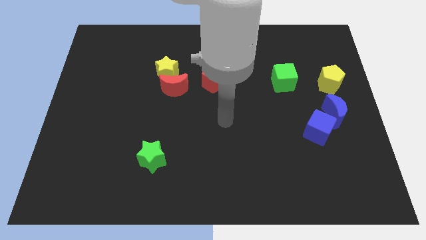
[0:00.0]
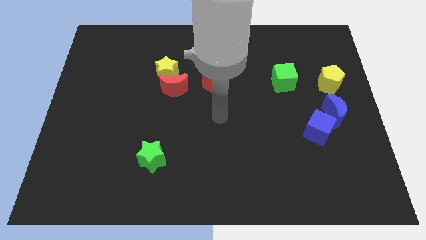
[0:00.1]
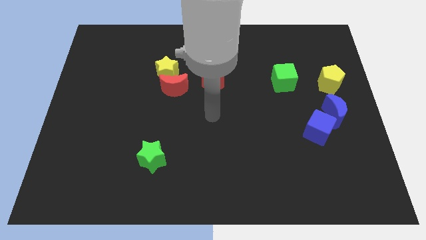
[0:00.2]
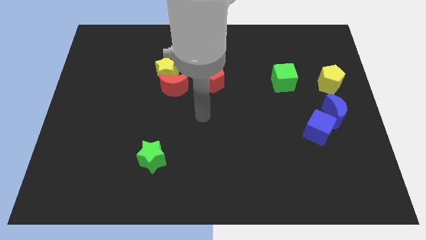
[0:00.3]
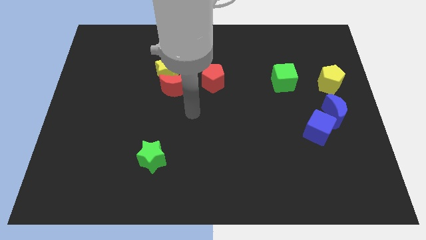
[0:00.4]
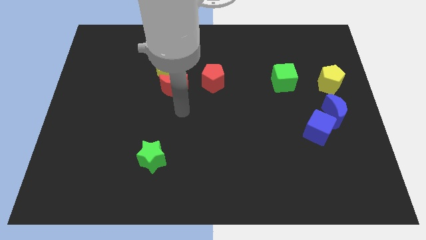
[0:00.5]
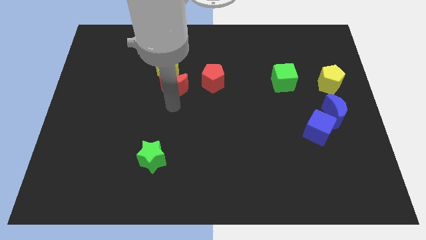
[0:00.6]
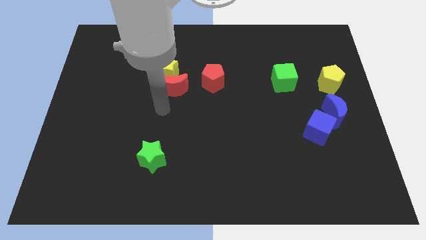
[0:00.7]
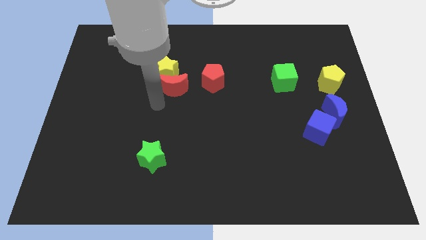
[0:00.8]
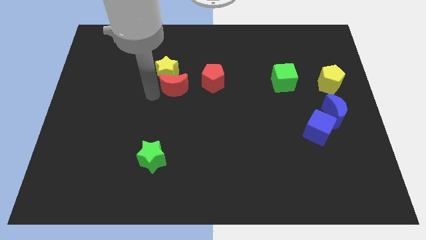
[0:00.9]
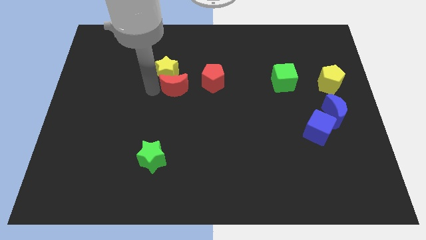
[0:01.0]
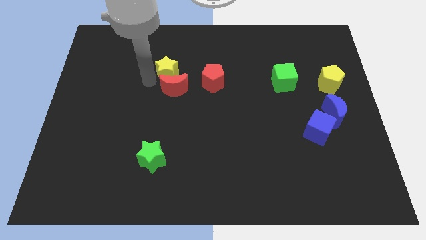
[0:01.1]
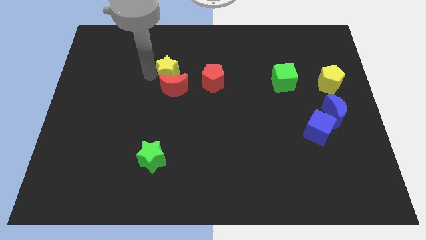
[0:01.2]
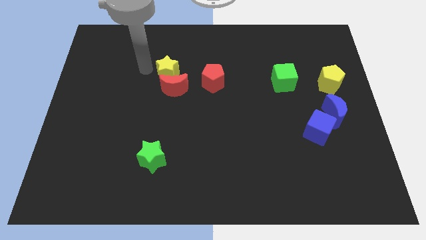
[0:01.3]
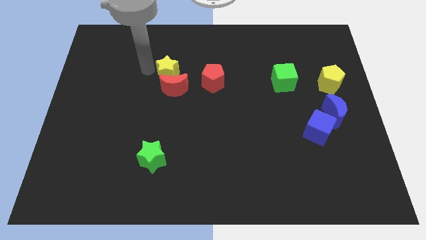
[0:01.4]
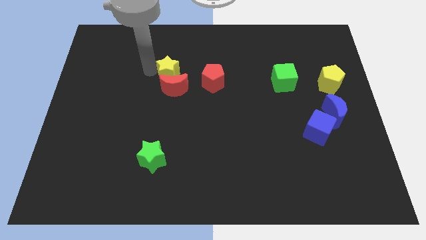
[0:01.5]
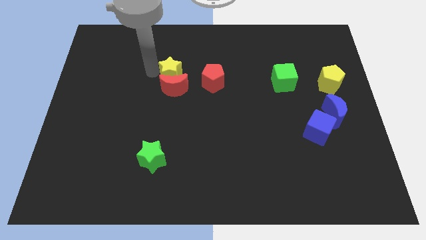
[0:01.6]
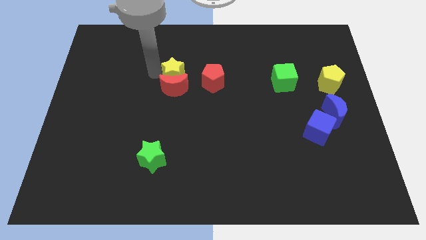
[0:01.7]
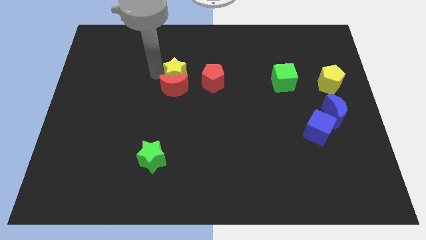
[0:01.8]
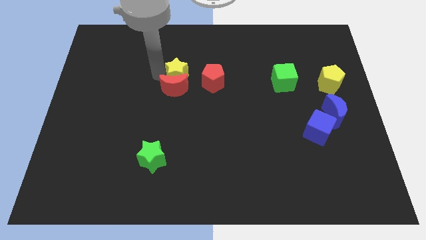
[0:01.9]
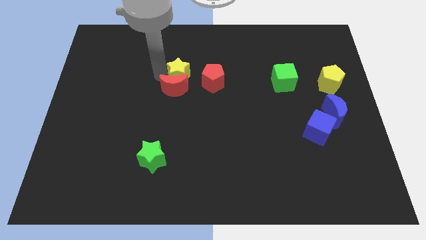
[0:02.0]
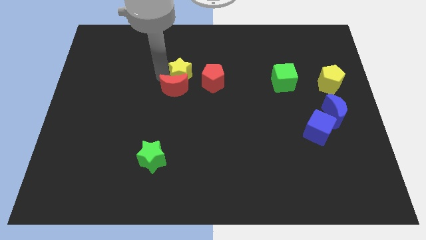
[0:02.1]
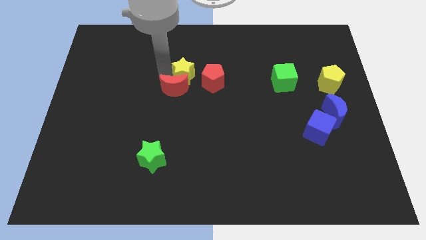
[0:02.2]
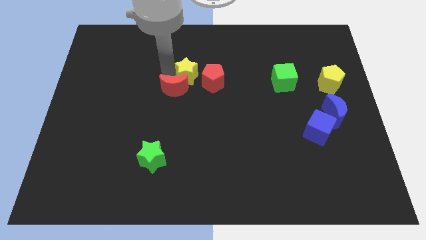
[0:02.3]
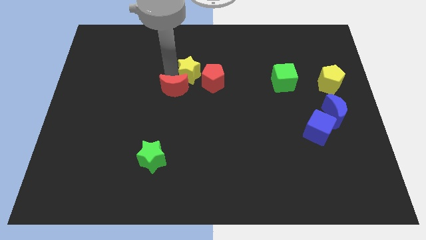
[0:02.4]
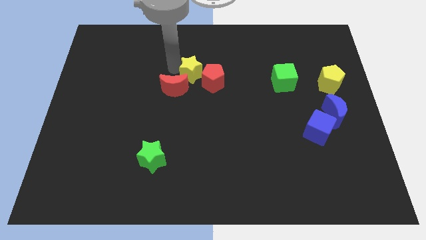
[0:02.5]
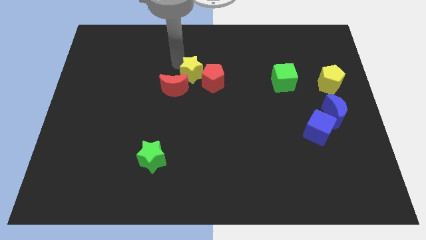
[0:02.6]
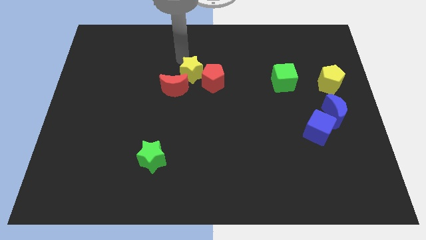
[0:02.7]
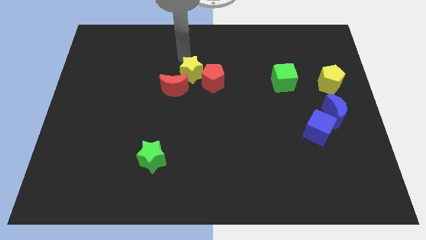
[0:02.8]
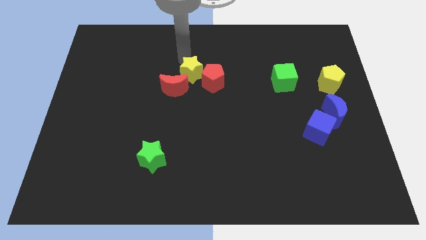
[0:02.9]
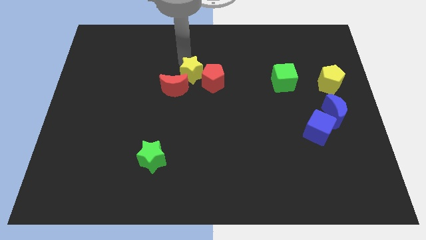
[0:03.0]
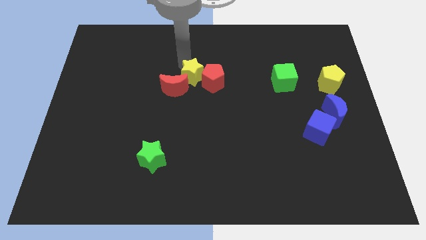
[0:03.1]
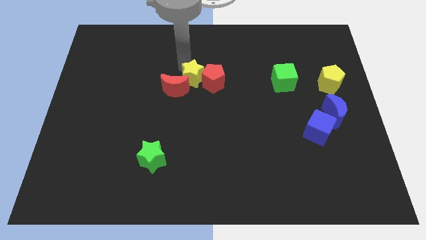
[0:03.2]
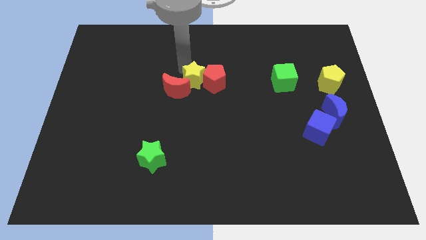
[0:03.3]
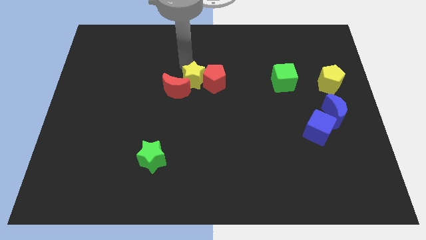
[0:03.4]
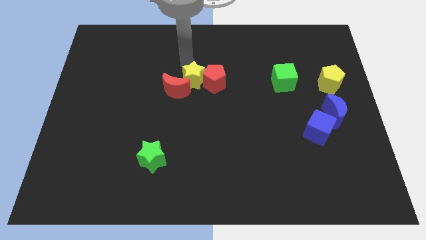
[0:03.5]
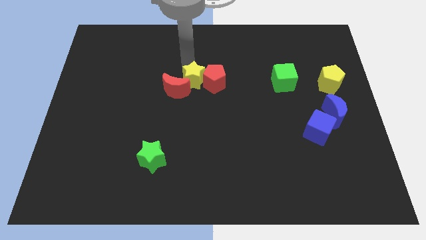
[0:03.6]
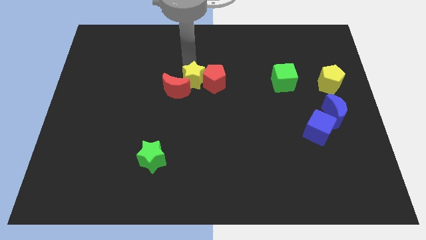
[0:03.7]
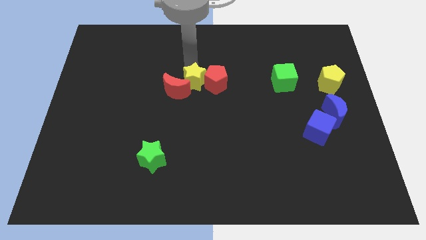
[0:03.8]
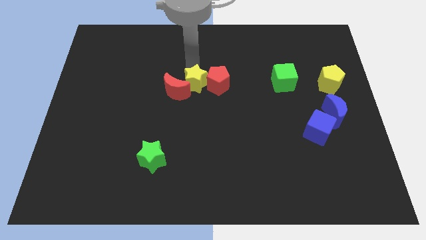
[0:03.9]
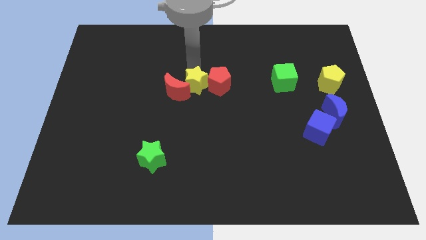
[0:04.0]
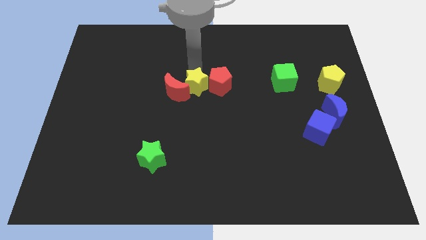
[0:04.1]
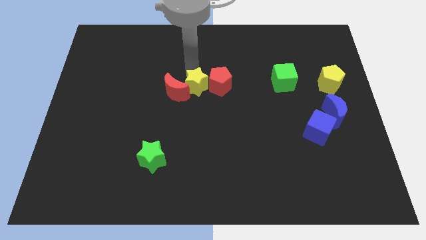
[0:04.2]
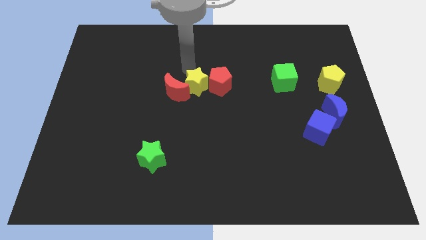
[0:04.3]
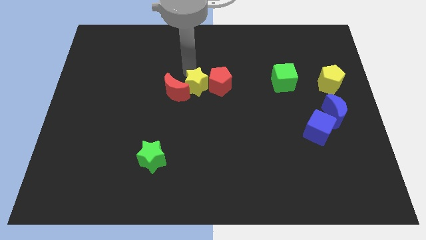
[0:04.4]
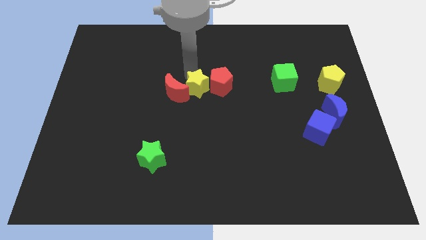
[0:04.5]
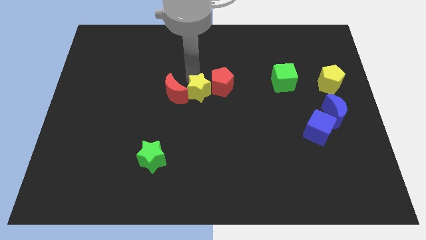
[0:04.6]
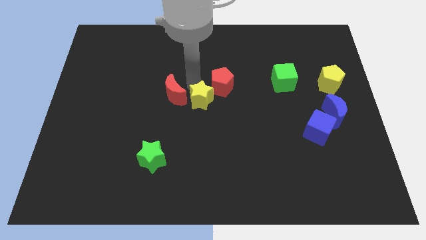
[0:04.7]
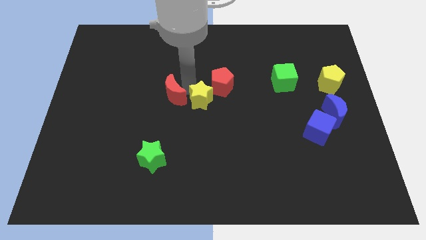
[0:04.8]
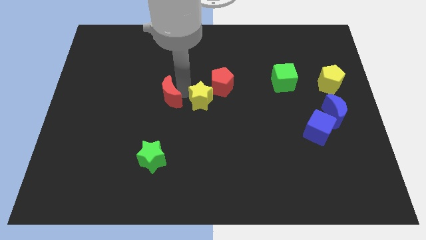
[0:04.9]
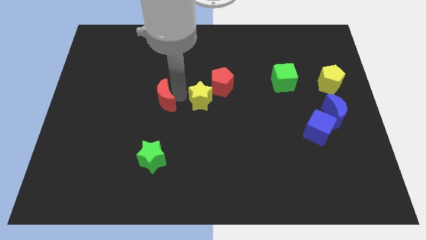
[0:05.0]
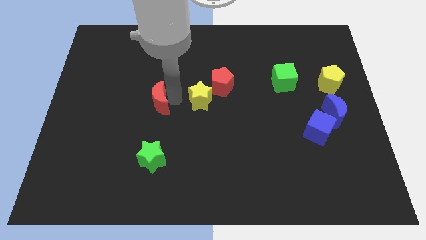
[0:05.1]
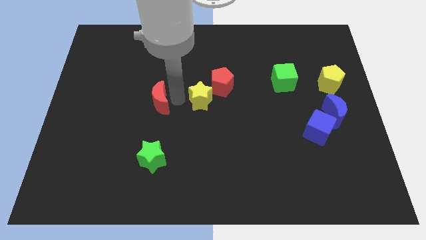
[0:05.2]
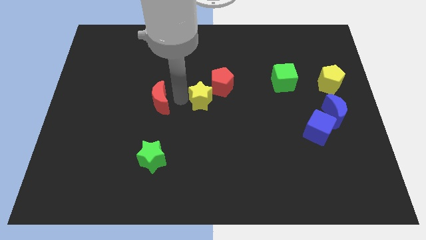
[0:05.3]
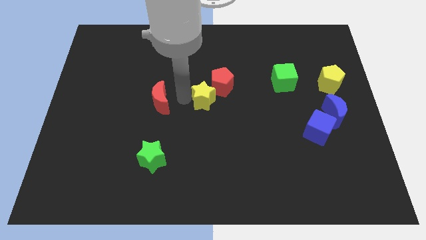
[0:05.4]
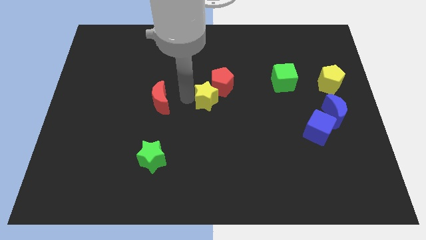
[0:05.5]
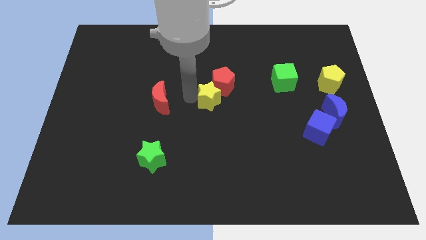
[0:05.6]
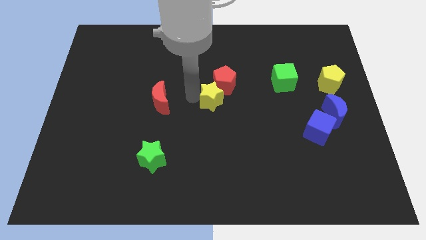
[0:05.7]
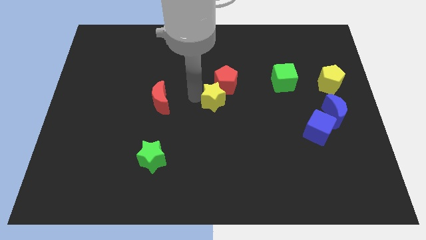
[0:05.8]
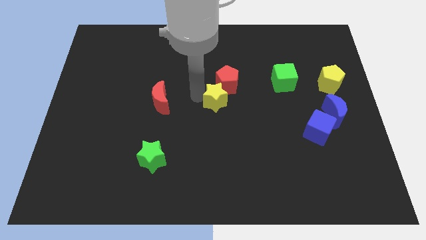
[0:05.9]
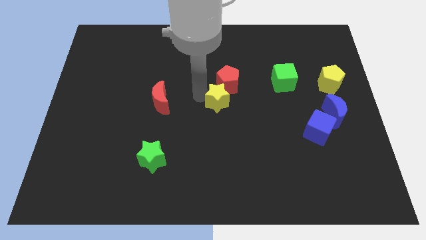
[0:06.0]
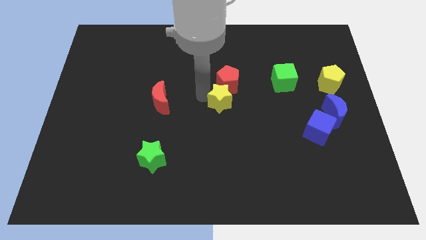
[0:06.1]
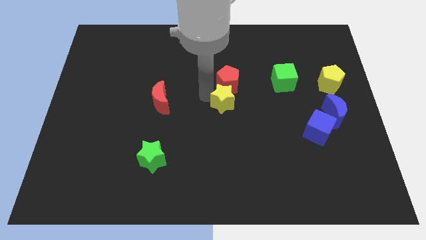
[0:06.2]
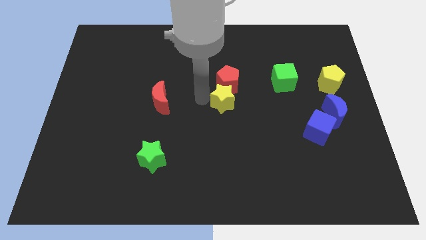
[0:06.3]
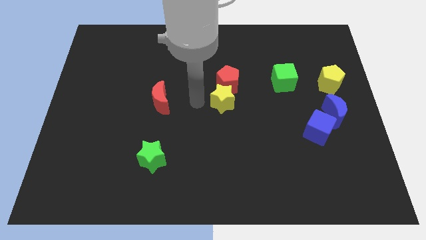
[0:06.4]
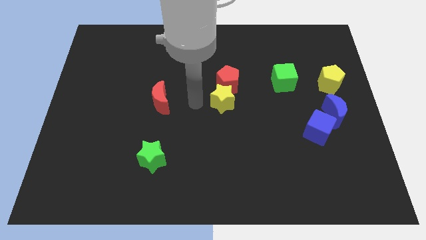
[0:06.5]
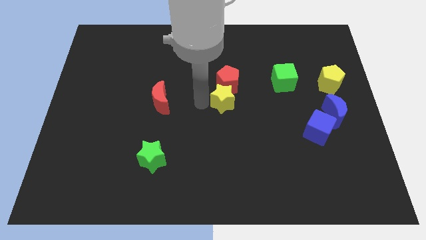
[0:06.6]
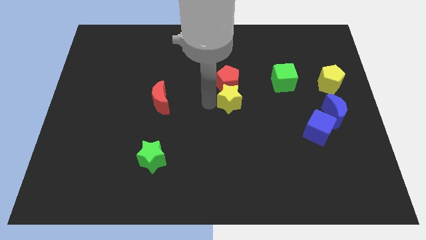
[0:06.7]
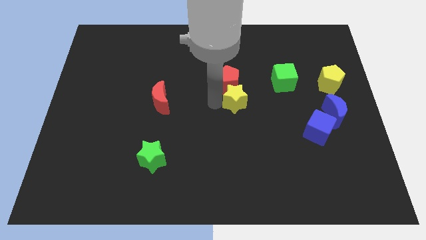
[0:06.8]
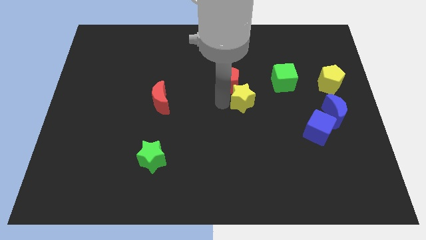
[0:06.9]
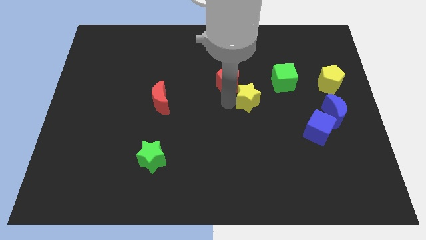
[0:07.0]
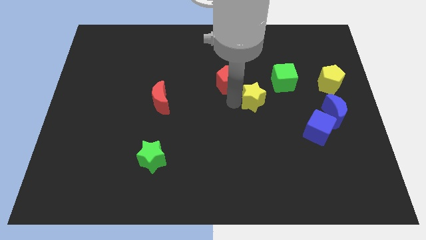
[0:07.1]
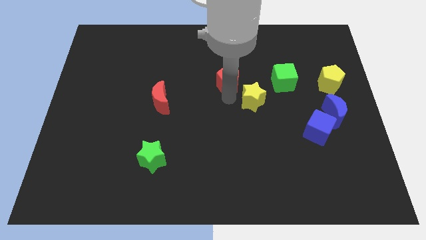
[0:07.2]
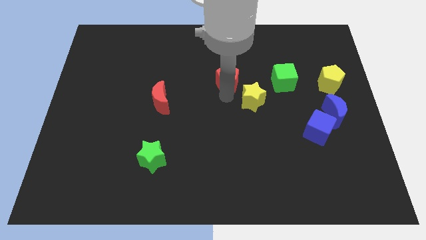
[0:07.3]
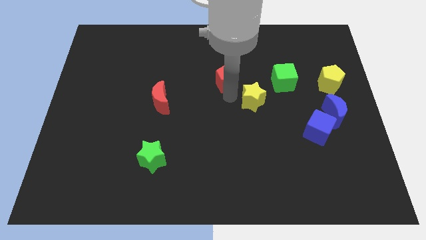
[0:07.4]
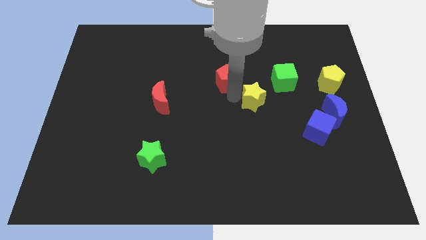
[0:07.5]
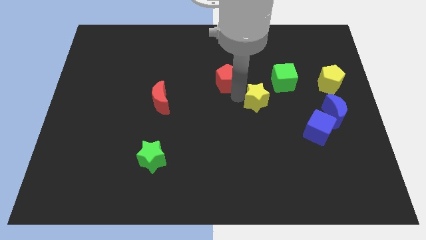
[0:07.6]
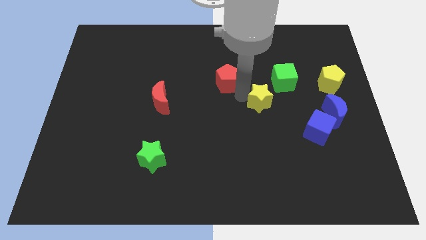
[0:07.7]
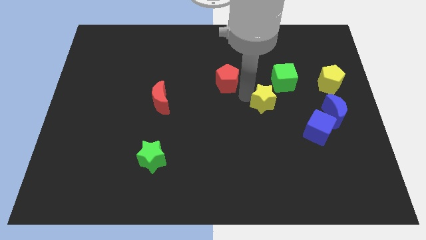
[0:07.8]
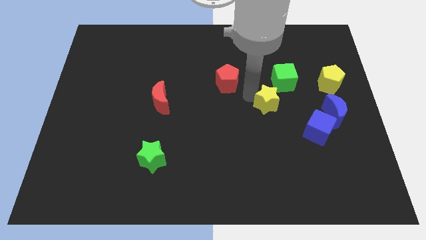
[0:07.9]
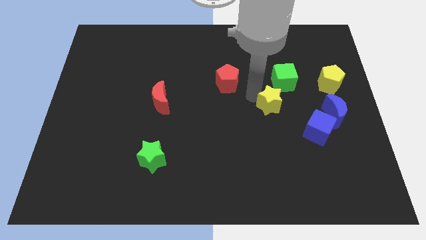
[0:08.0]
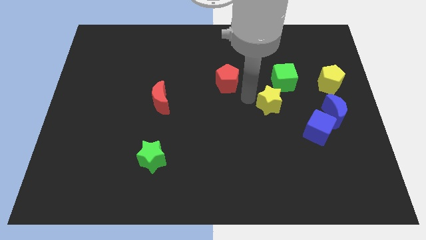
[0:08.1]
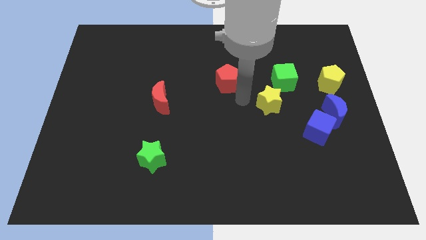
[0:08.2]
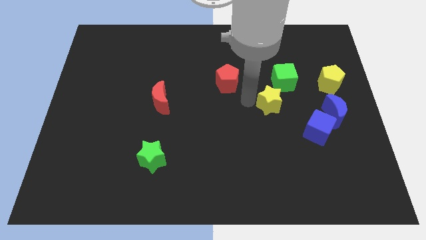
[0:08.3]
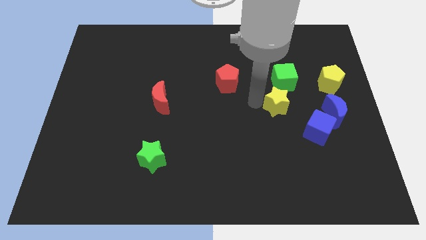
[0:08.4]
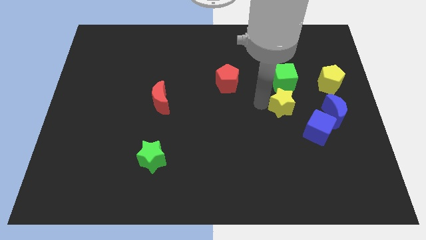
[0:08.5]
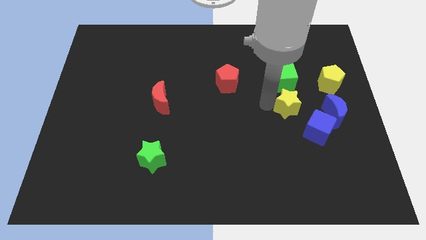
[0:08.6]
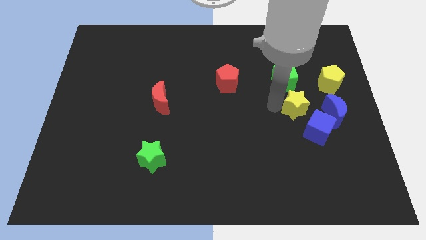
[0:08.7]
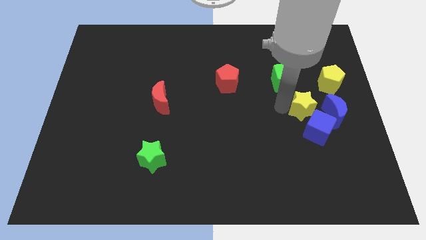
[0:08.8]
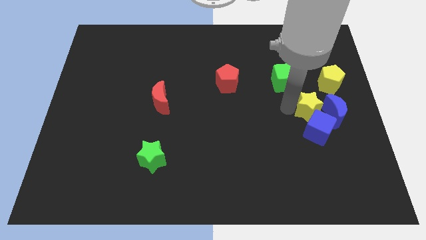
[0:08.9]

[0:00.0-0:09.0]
slide the yellow star next to the blue moon
